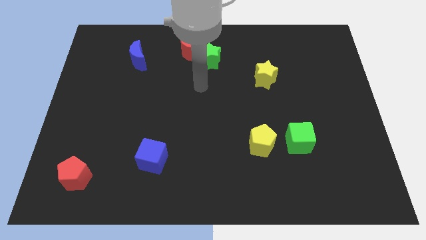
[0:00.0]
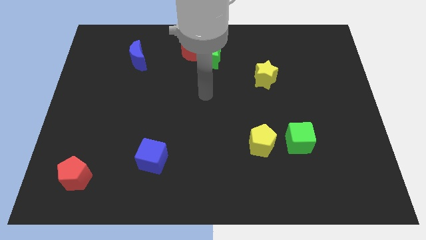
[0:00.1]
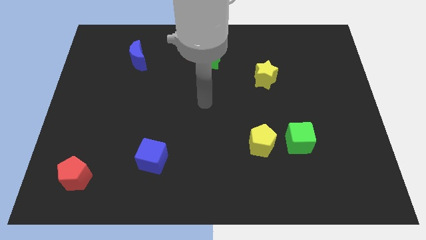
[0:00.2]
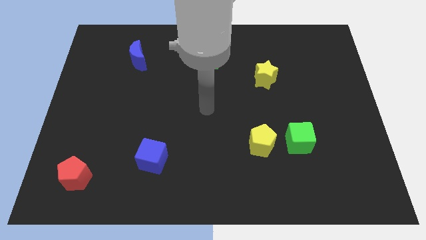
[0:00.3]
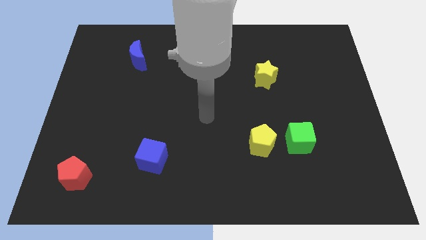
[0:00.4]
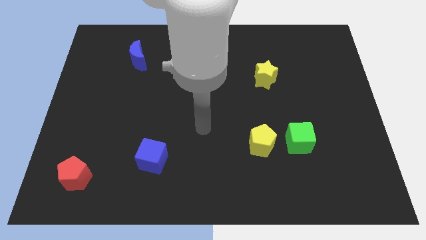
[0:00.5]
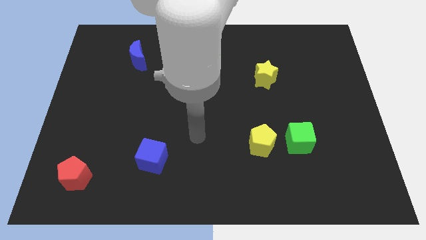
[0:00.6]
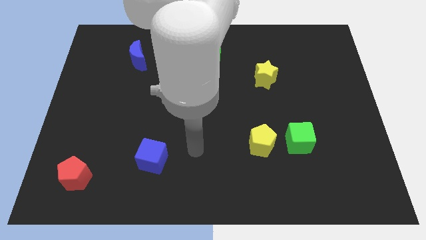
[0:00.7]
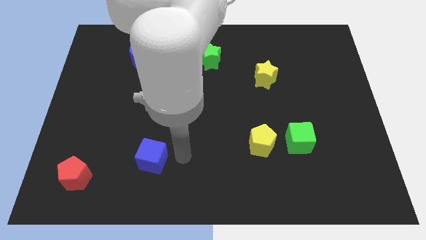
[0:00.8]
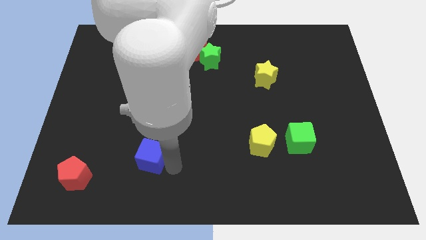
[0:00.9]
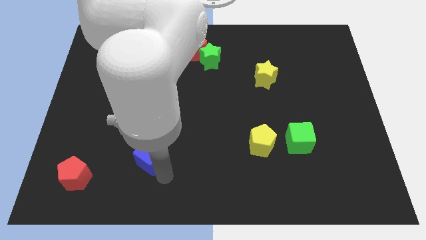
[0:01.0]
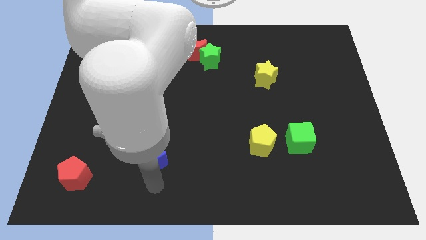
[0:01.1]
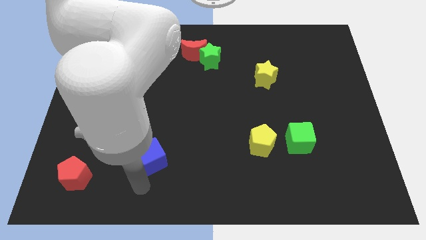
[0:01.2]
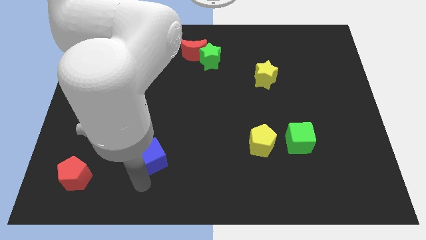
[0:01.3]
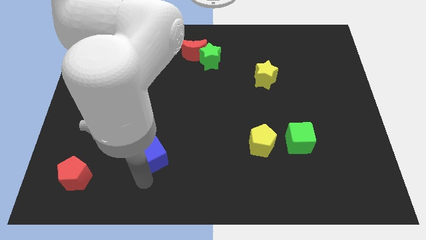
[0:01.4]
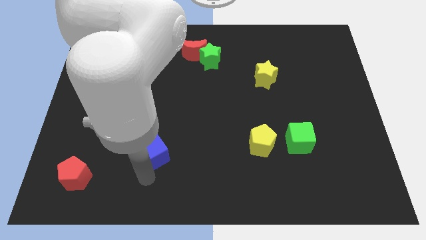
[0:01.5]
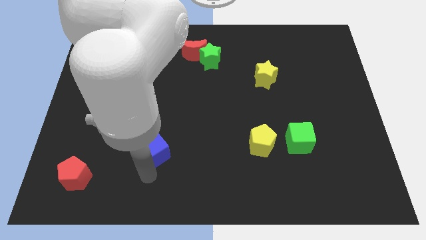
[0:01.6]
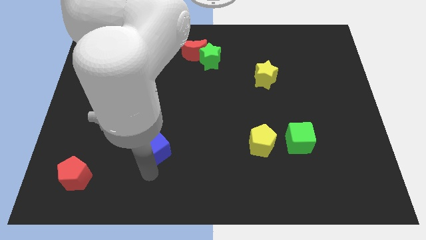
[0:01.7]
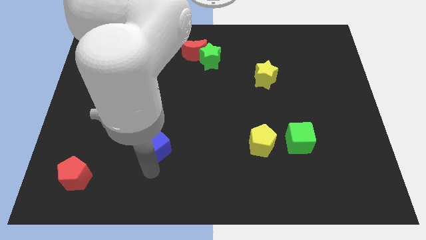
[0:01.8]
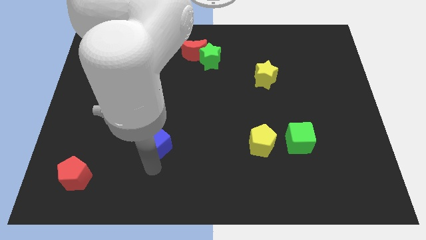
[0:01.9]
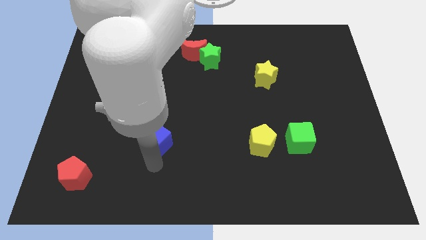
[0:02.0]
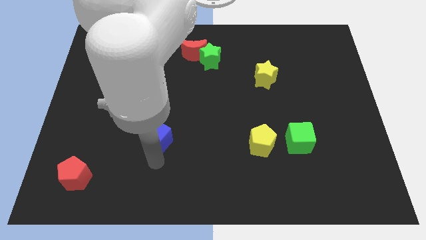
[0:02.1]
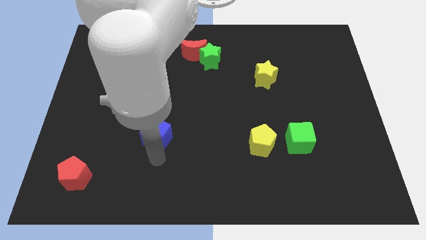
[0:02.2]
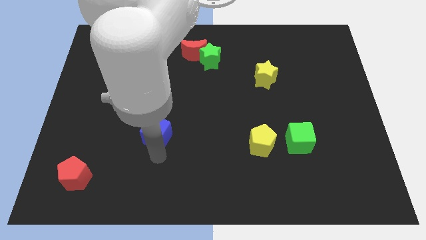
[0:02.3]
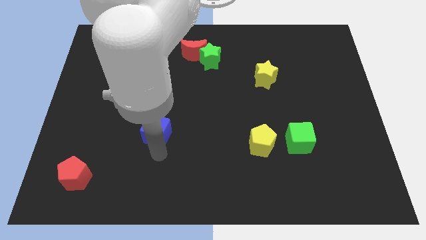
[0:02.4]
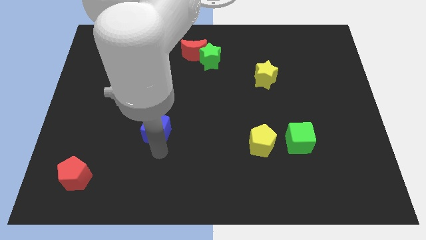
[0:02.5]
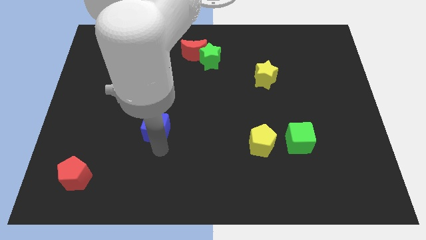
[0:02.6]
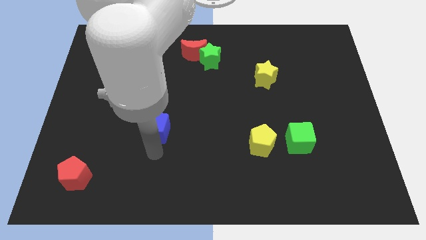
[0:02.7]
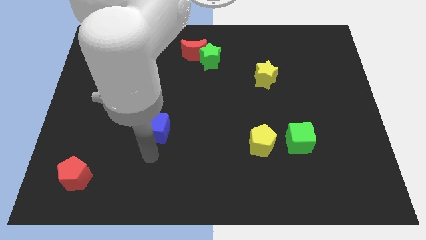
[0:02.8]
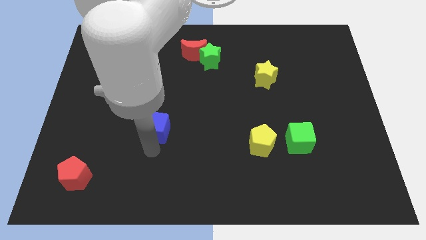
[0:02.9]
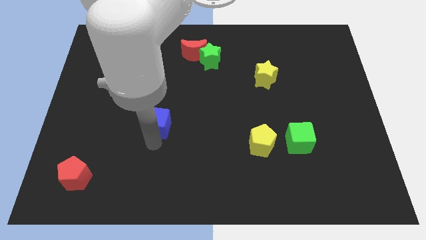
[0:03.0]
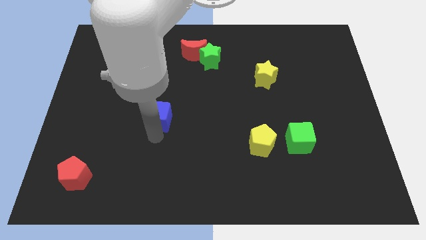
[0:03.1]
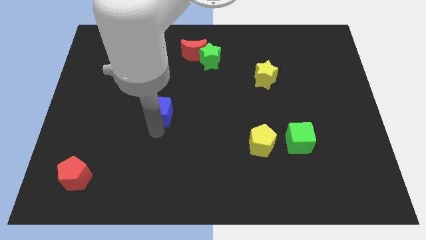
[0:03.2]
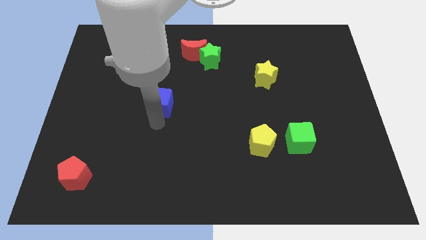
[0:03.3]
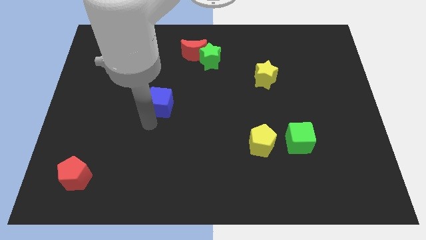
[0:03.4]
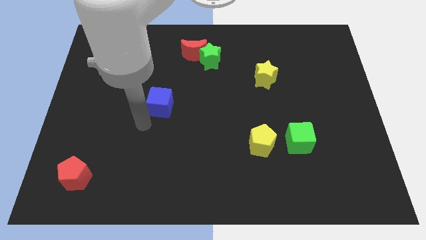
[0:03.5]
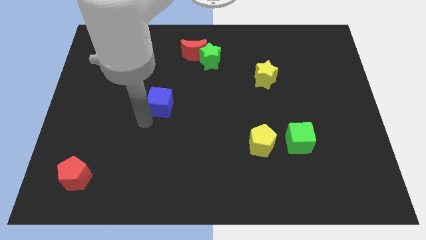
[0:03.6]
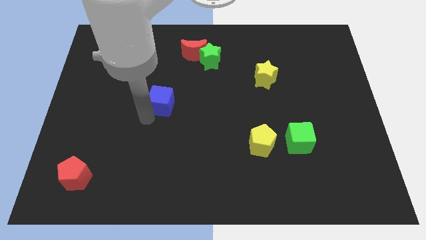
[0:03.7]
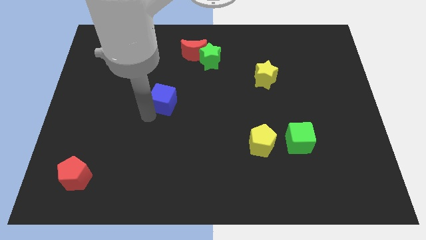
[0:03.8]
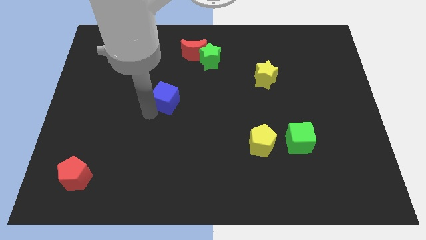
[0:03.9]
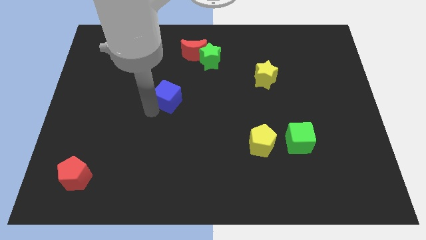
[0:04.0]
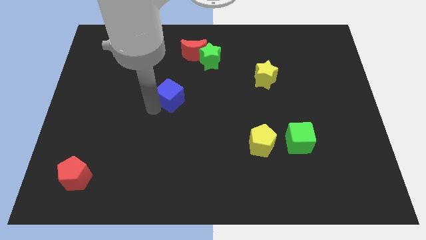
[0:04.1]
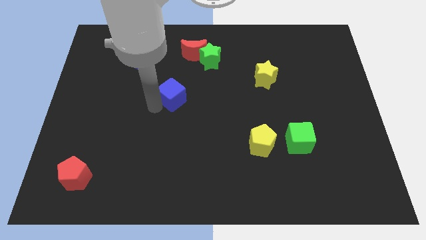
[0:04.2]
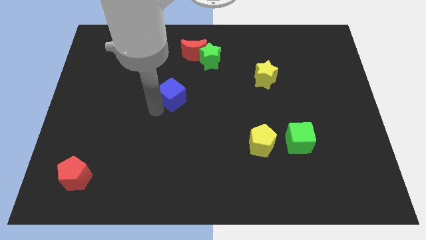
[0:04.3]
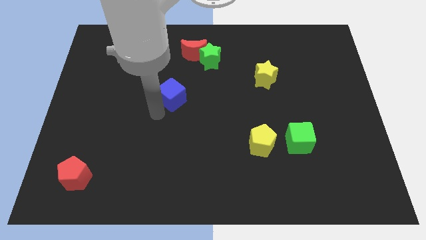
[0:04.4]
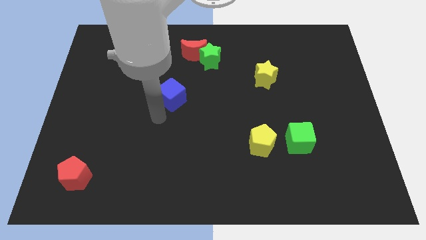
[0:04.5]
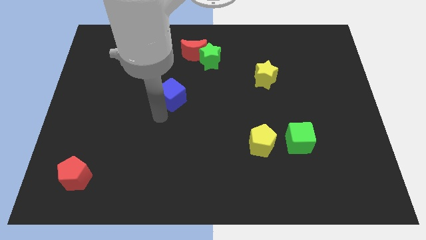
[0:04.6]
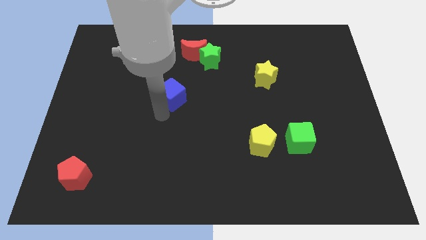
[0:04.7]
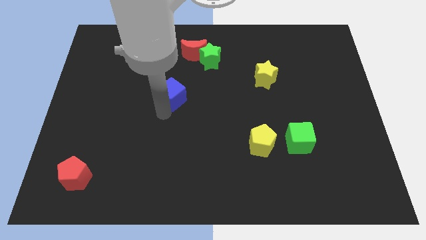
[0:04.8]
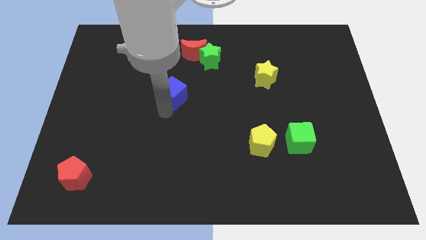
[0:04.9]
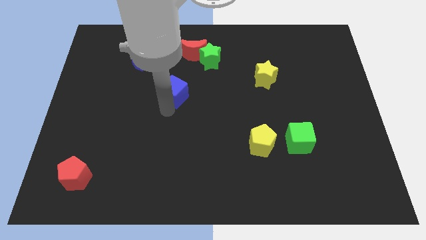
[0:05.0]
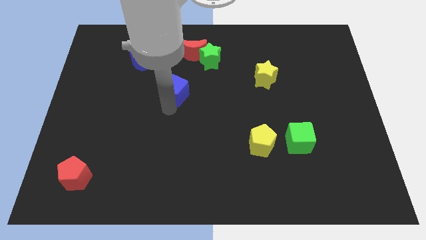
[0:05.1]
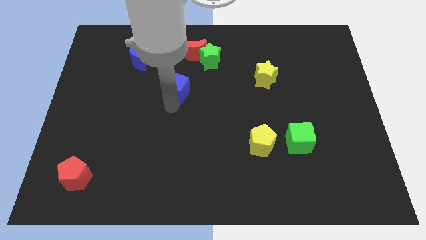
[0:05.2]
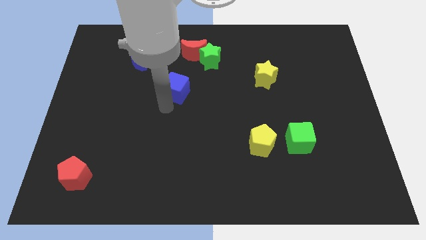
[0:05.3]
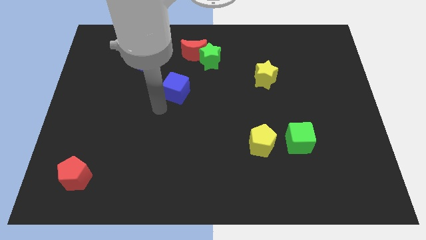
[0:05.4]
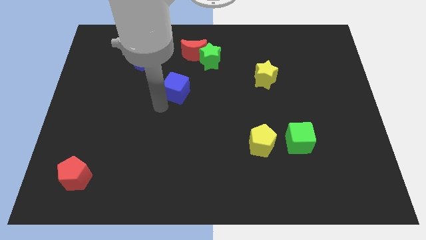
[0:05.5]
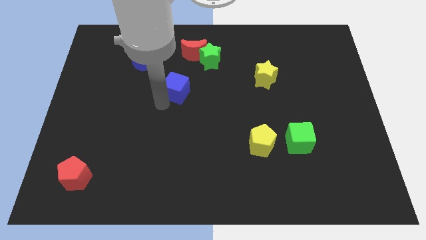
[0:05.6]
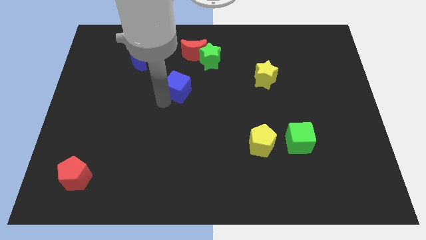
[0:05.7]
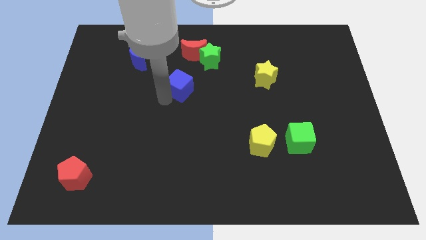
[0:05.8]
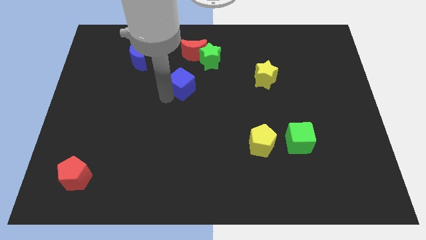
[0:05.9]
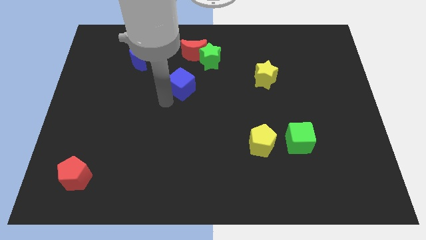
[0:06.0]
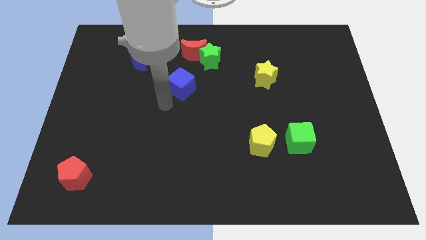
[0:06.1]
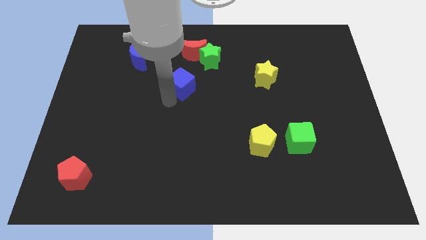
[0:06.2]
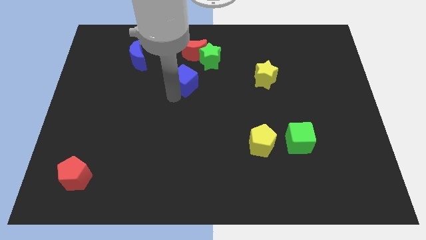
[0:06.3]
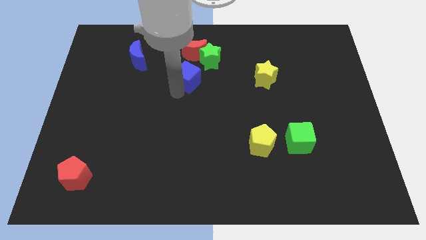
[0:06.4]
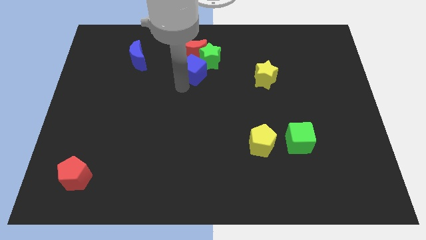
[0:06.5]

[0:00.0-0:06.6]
put the blue cube towards the green star

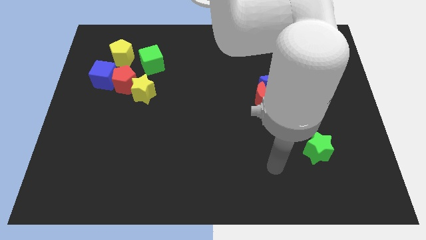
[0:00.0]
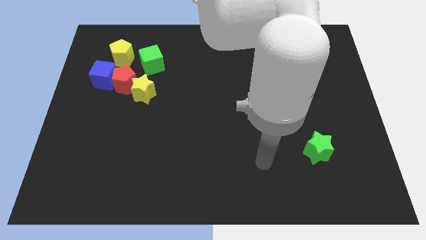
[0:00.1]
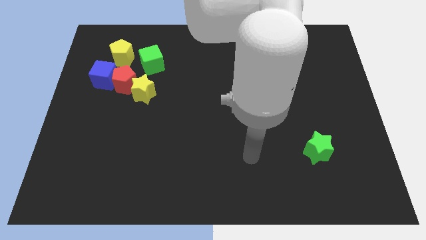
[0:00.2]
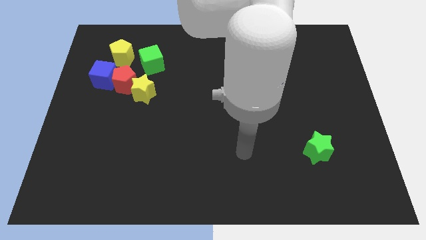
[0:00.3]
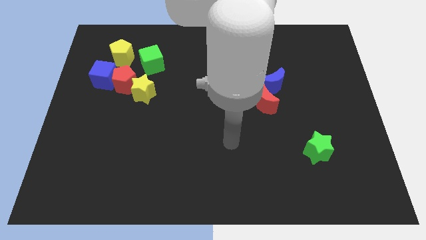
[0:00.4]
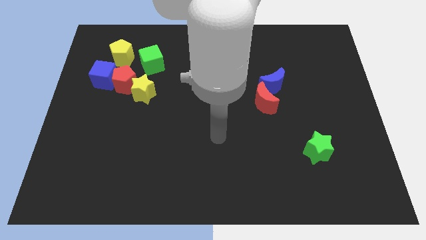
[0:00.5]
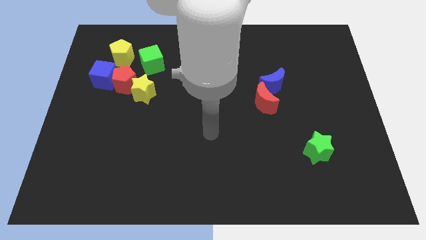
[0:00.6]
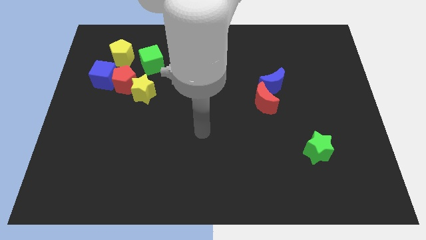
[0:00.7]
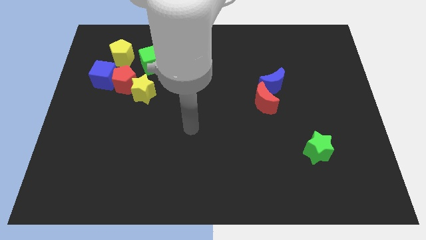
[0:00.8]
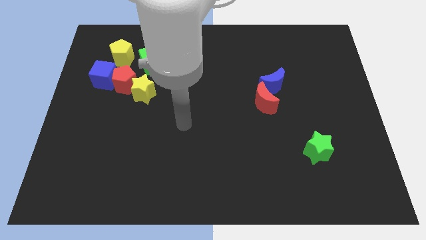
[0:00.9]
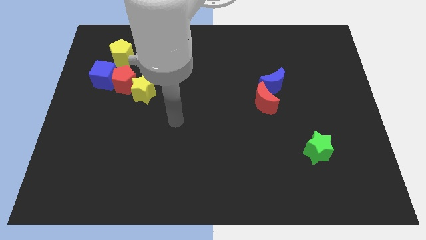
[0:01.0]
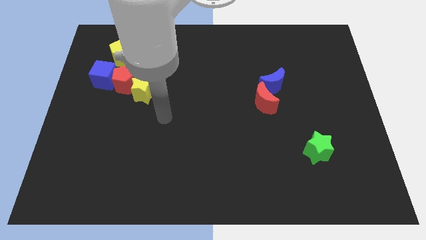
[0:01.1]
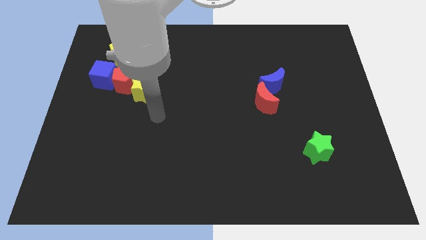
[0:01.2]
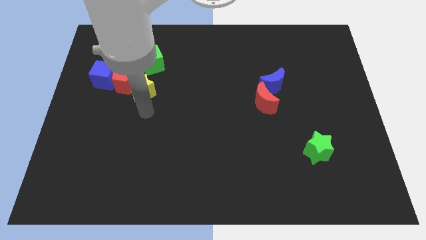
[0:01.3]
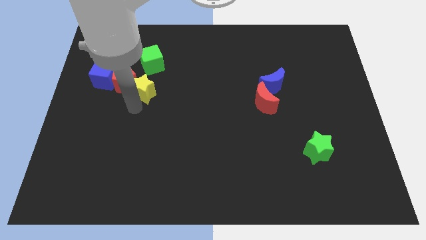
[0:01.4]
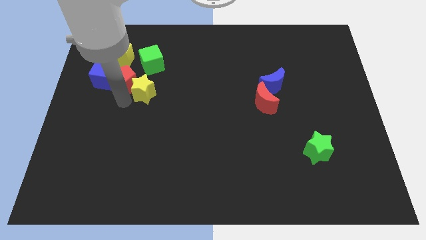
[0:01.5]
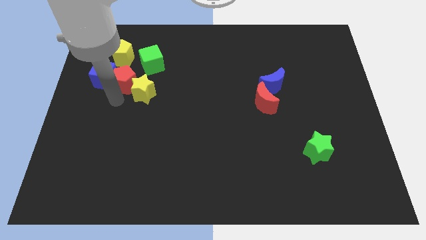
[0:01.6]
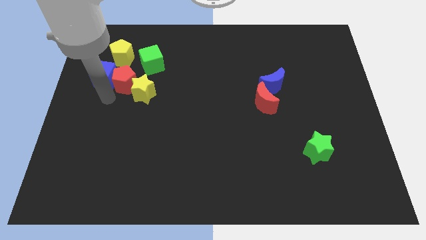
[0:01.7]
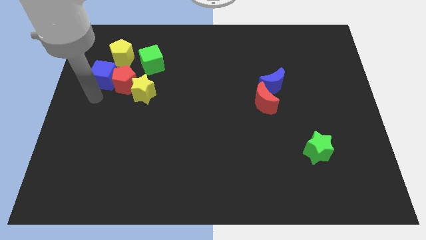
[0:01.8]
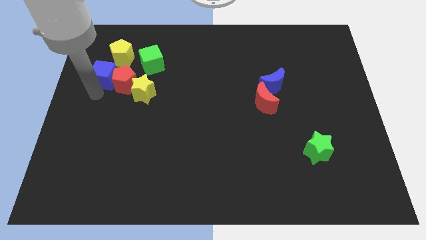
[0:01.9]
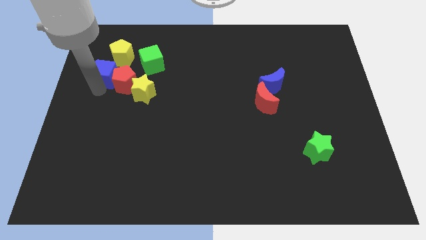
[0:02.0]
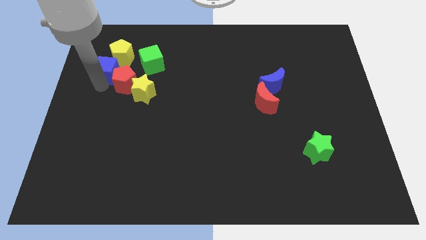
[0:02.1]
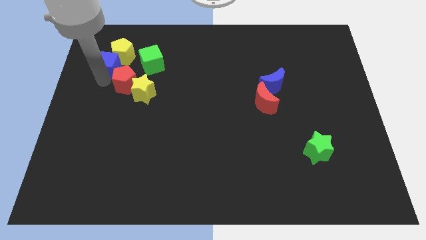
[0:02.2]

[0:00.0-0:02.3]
push the blue cube to the yellow pentagon
